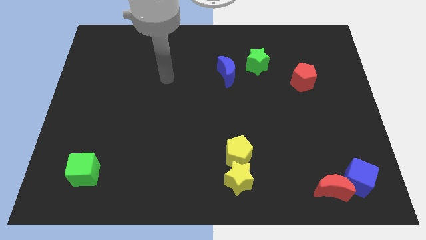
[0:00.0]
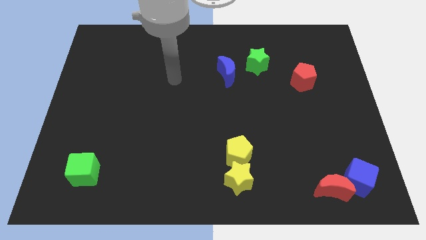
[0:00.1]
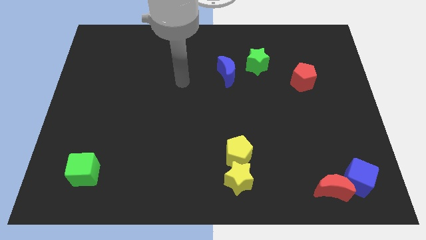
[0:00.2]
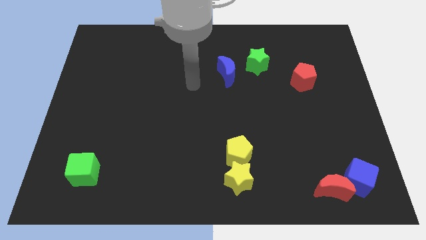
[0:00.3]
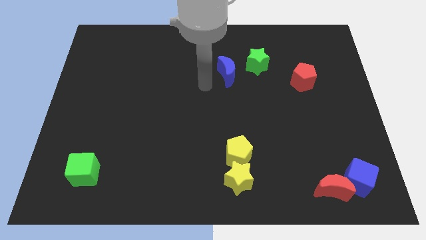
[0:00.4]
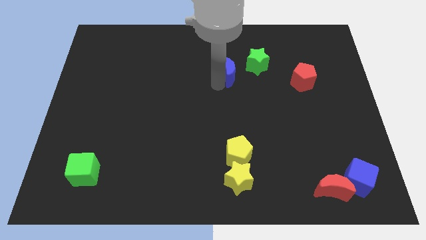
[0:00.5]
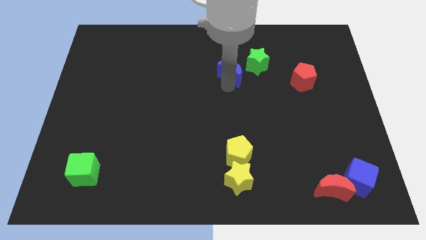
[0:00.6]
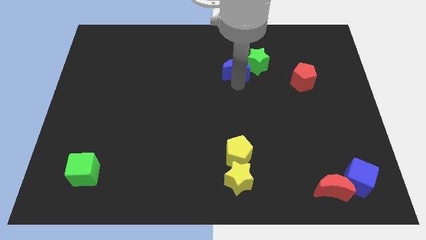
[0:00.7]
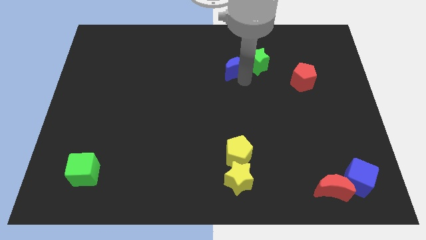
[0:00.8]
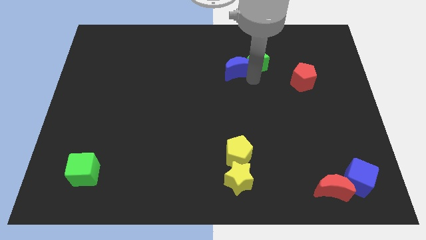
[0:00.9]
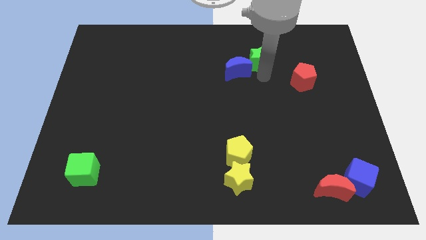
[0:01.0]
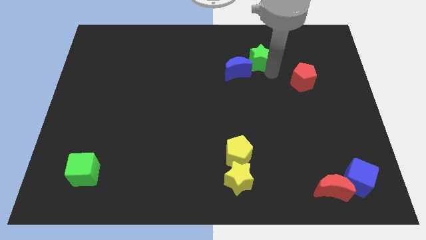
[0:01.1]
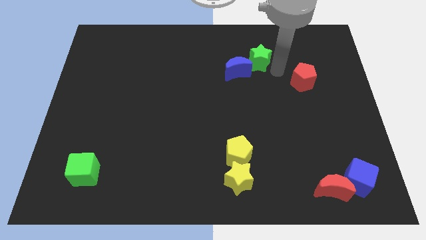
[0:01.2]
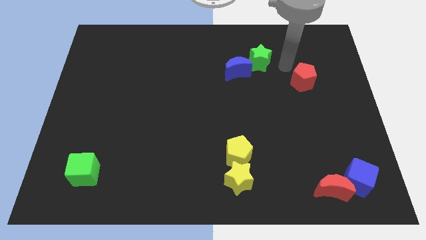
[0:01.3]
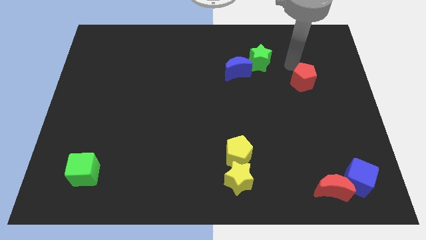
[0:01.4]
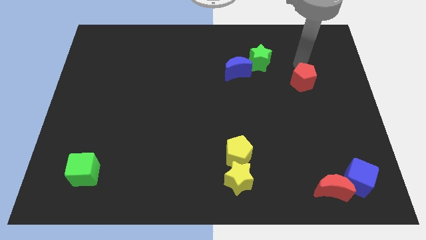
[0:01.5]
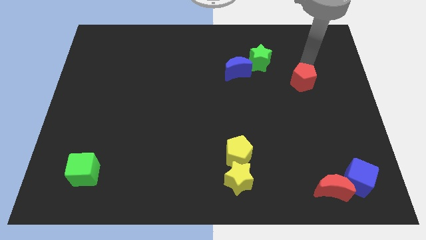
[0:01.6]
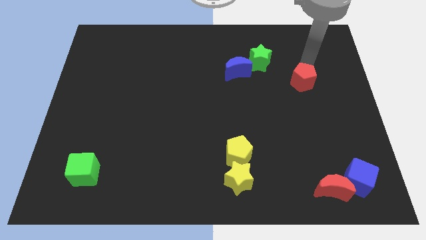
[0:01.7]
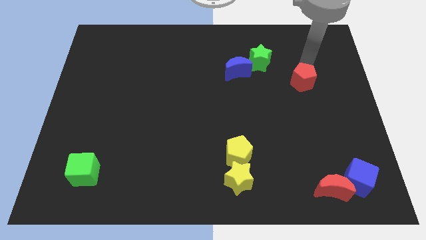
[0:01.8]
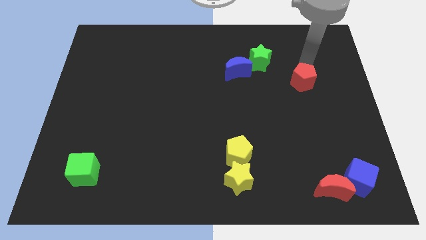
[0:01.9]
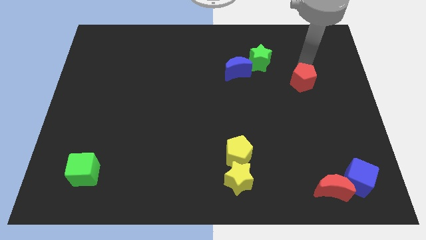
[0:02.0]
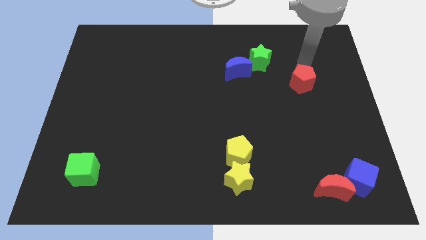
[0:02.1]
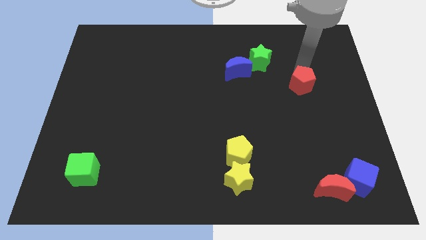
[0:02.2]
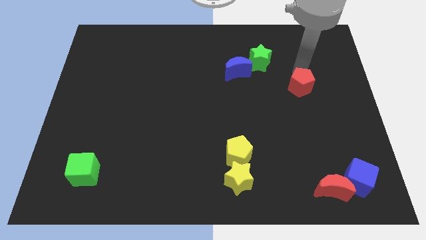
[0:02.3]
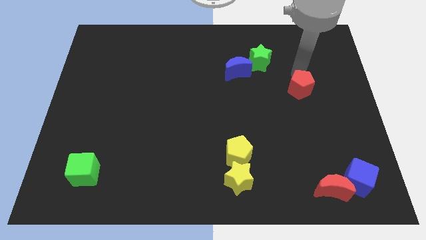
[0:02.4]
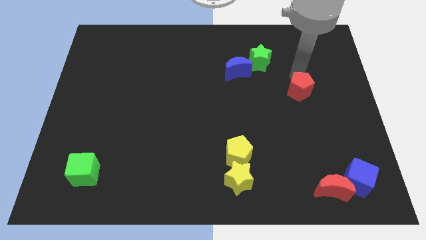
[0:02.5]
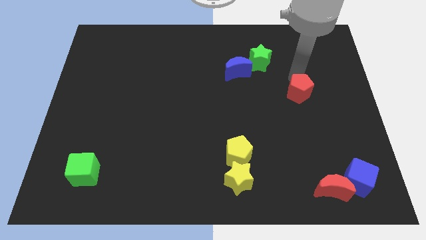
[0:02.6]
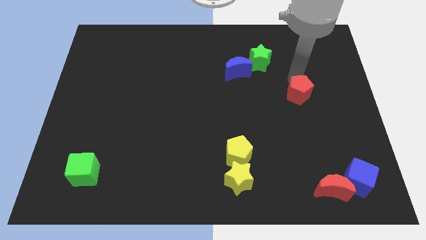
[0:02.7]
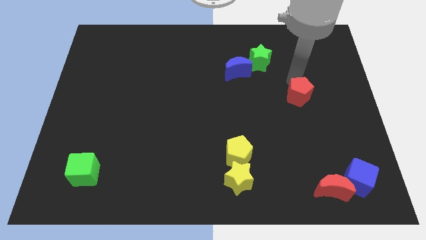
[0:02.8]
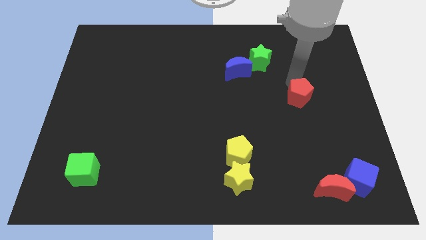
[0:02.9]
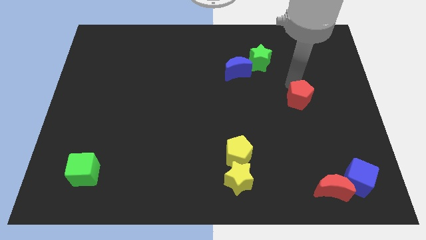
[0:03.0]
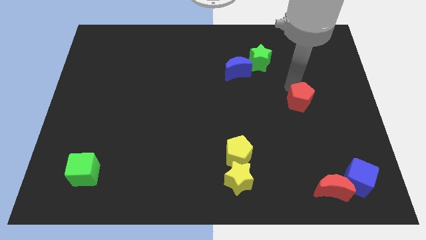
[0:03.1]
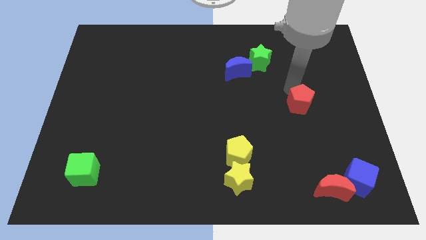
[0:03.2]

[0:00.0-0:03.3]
move the red pentagon downwards slightly

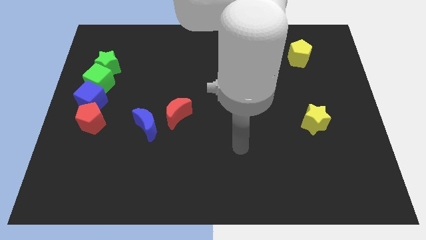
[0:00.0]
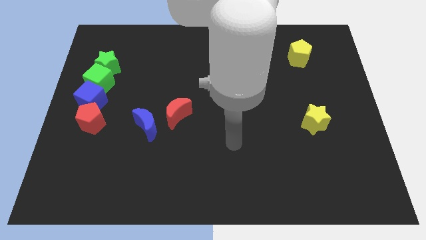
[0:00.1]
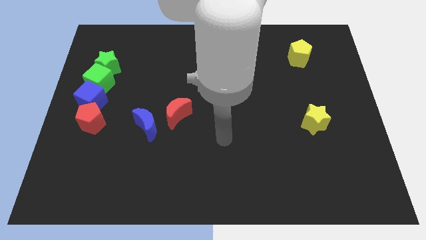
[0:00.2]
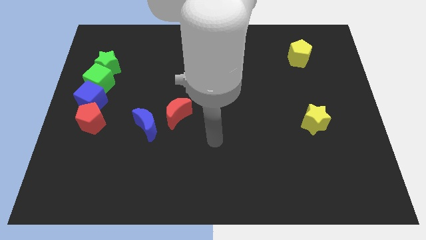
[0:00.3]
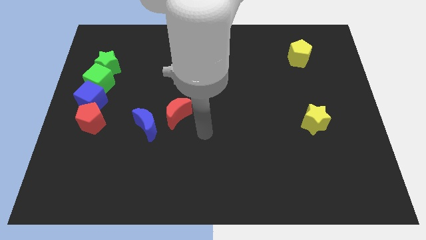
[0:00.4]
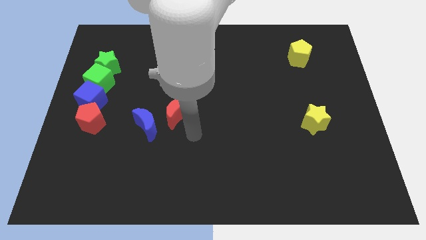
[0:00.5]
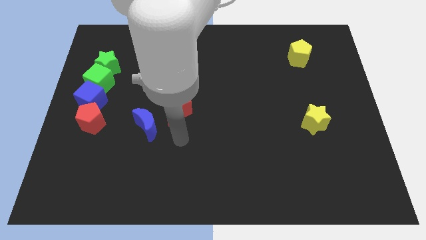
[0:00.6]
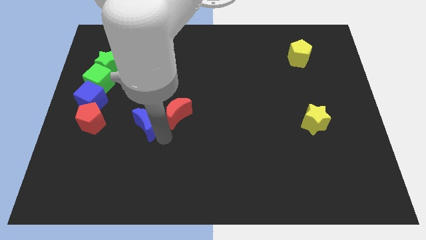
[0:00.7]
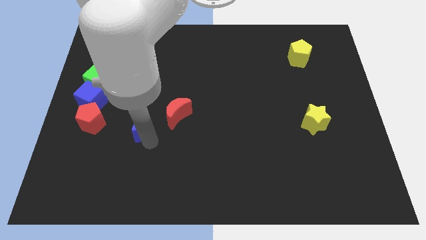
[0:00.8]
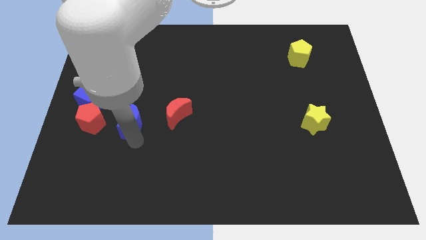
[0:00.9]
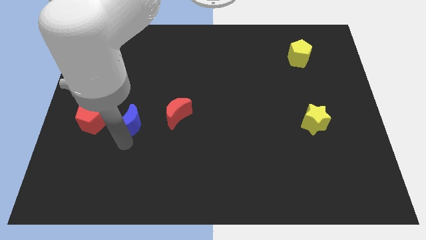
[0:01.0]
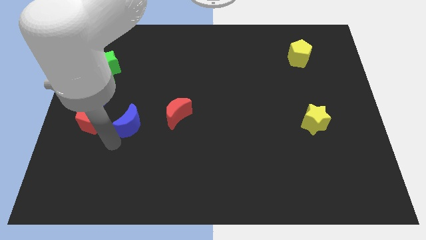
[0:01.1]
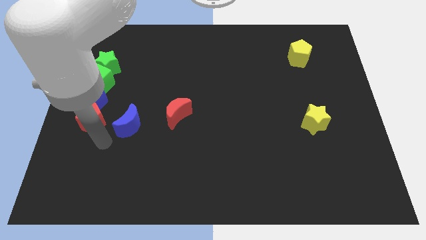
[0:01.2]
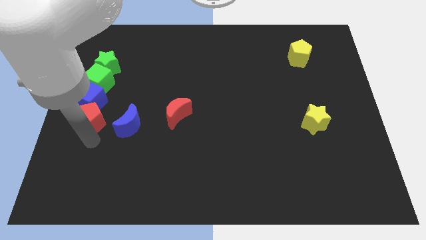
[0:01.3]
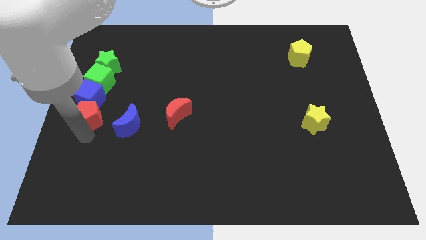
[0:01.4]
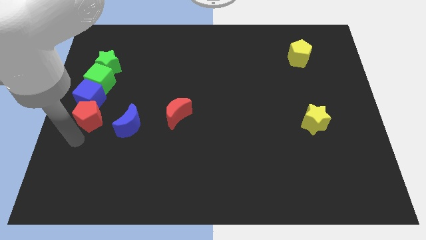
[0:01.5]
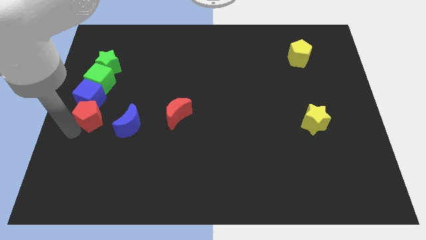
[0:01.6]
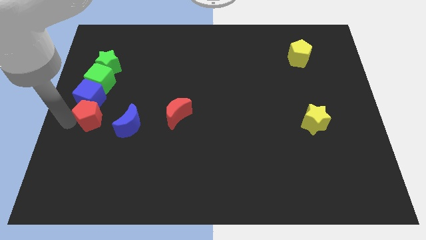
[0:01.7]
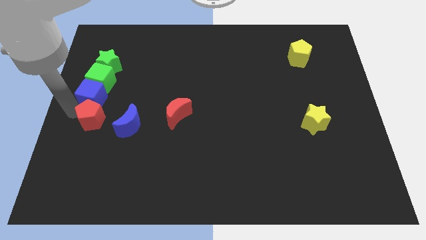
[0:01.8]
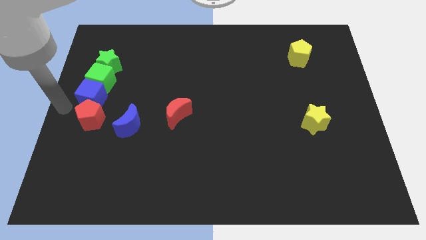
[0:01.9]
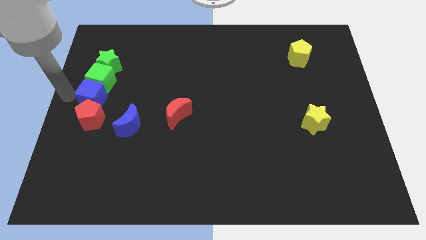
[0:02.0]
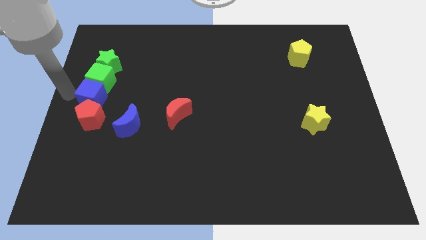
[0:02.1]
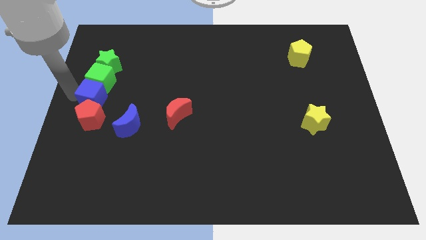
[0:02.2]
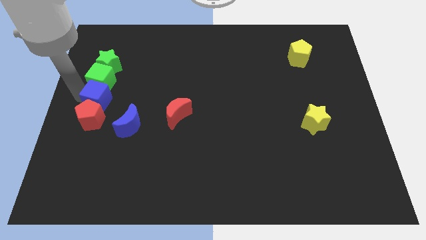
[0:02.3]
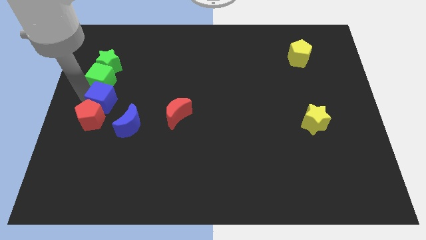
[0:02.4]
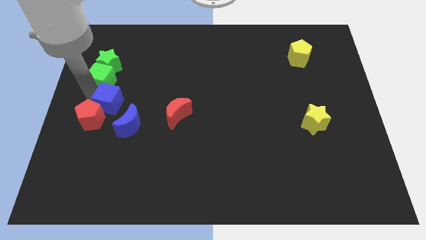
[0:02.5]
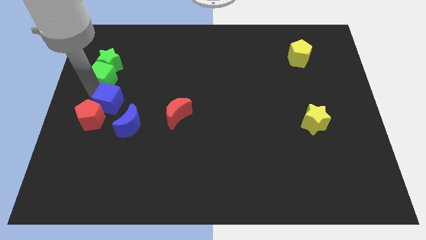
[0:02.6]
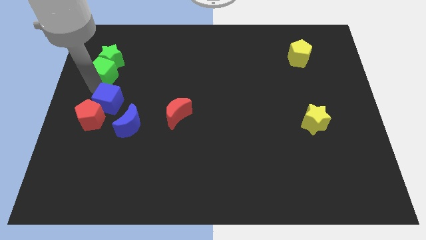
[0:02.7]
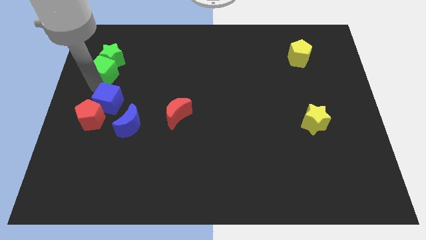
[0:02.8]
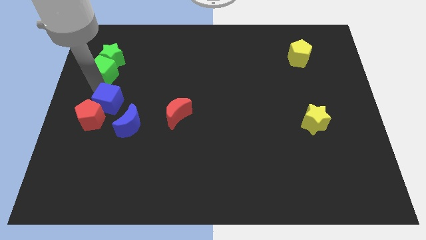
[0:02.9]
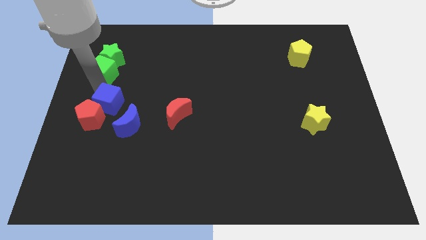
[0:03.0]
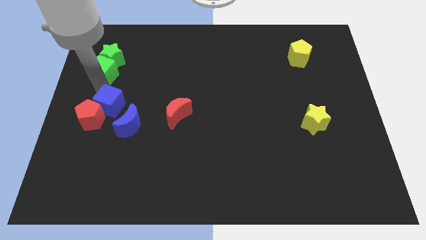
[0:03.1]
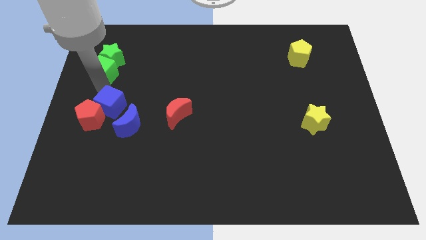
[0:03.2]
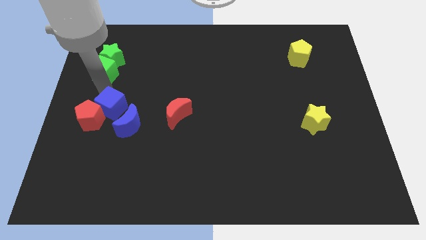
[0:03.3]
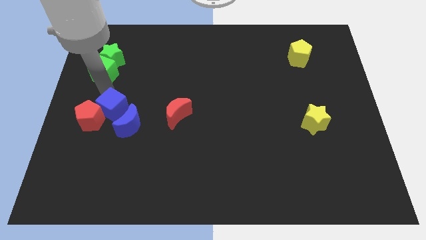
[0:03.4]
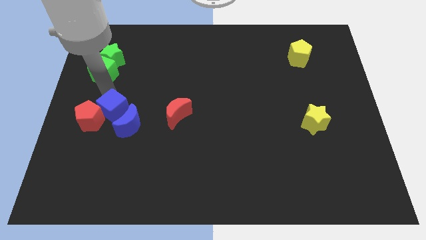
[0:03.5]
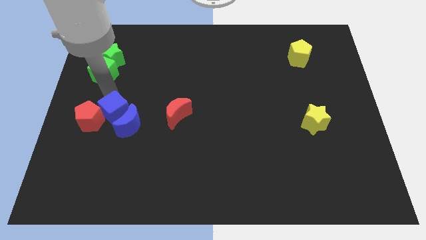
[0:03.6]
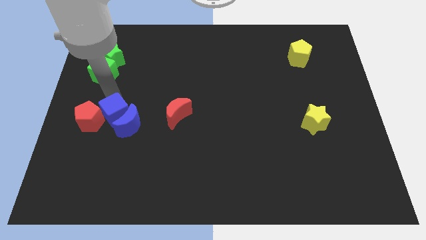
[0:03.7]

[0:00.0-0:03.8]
move the blue cube a bit diagonally downwards and to the right

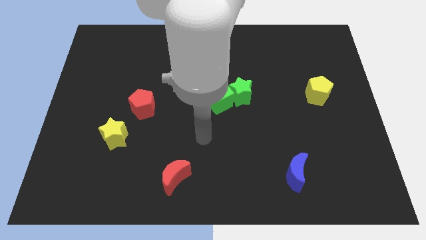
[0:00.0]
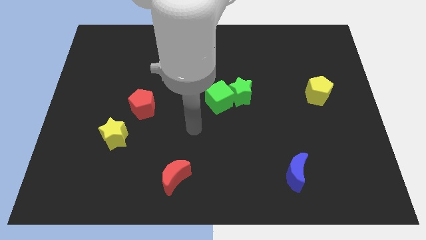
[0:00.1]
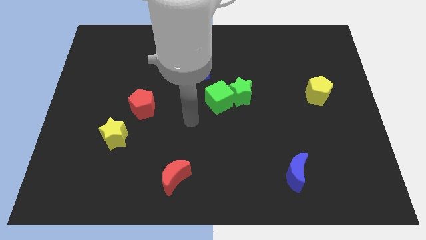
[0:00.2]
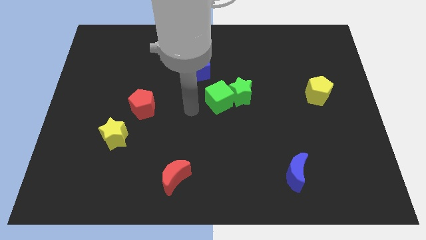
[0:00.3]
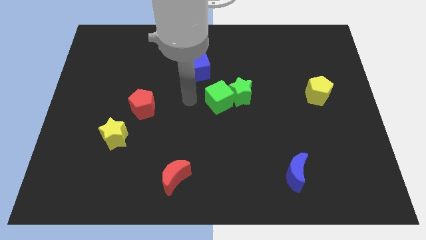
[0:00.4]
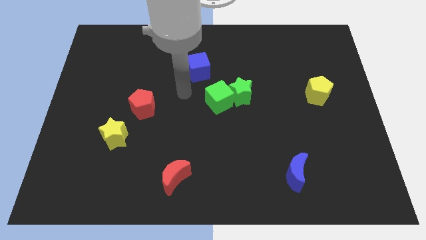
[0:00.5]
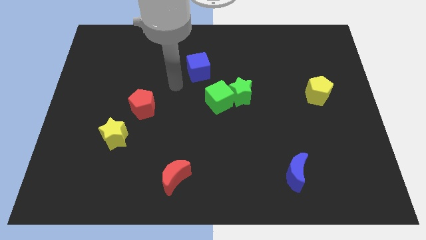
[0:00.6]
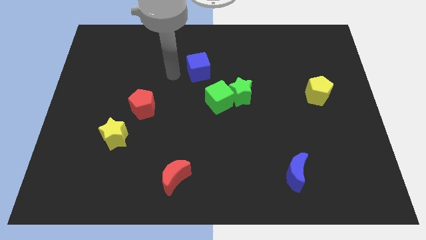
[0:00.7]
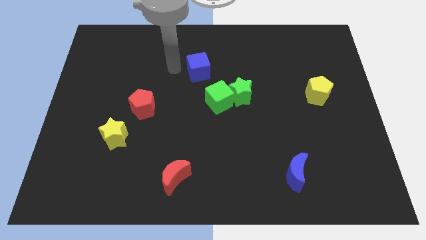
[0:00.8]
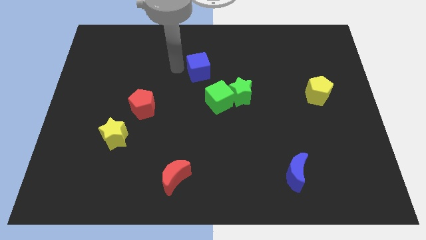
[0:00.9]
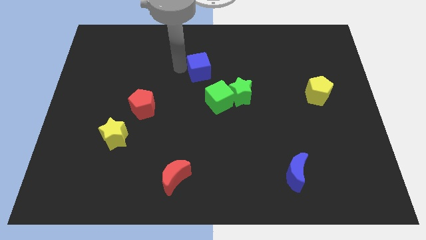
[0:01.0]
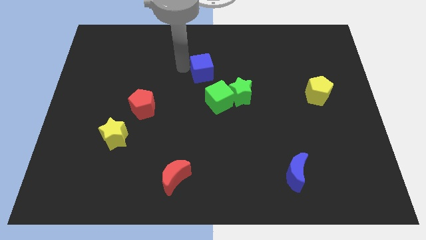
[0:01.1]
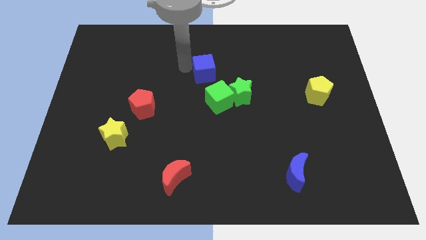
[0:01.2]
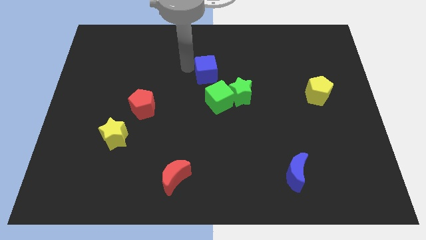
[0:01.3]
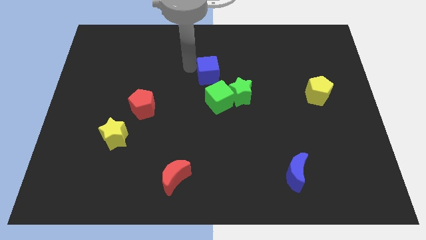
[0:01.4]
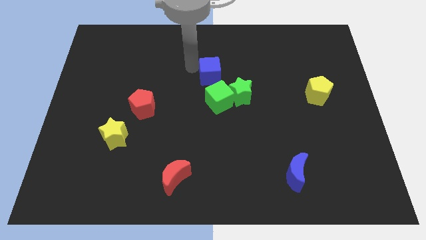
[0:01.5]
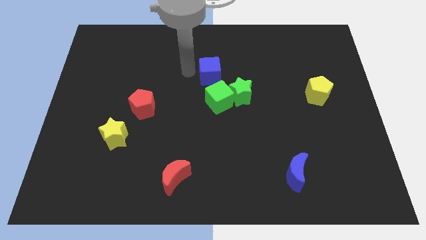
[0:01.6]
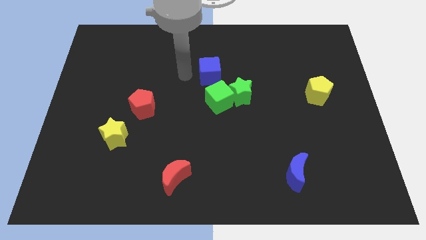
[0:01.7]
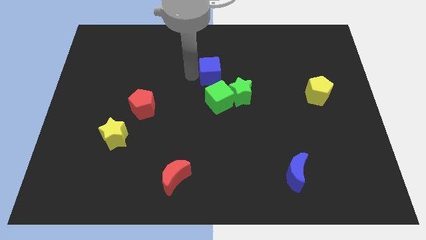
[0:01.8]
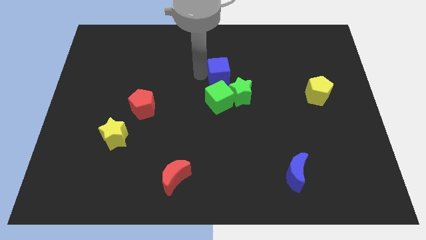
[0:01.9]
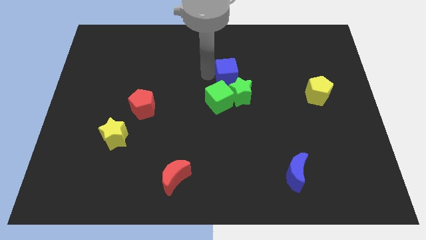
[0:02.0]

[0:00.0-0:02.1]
move the blue cube a little bit right
